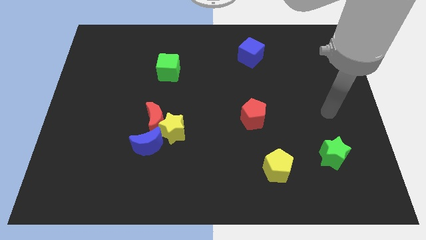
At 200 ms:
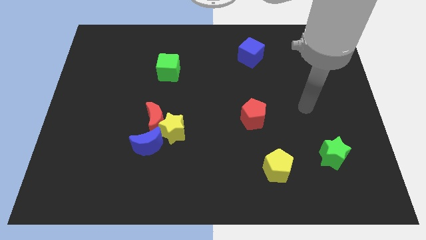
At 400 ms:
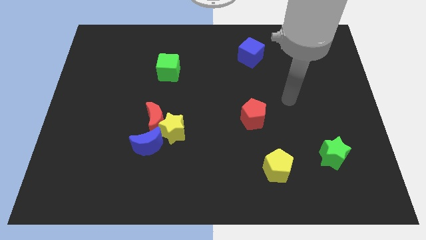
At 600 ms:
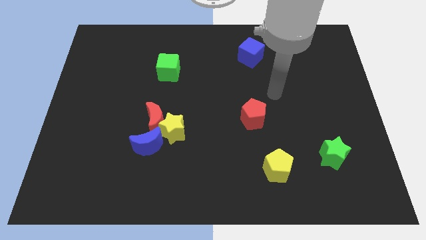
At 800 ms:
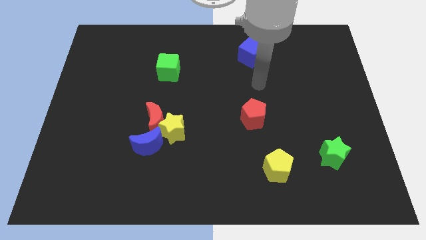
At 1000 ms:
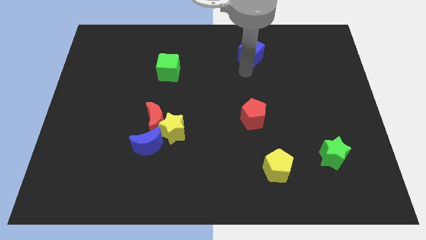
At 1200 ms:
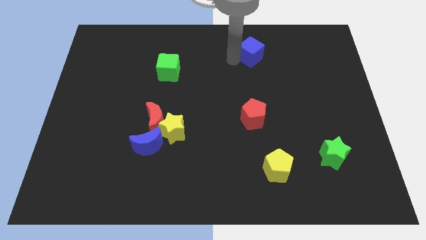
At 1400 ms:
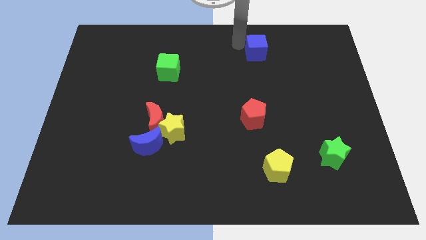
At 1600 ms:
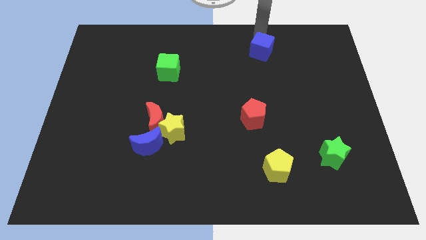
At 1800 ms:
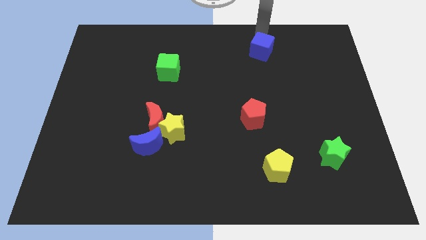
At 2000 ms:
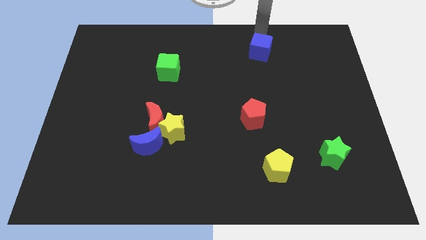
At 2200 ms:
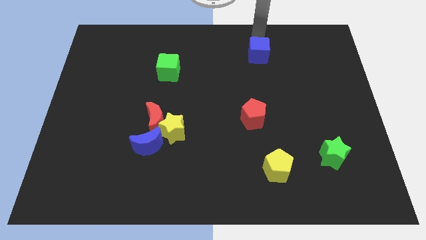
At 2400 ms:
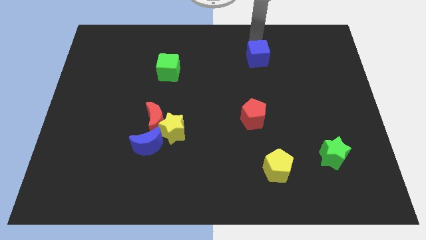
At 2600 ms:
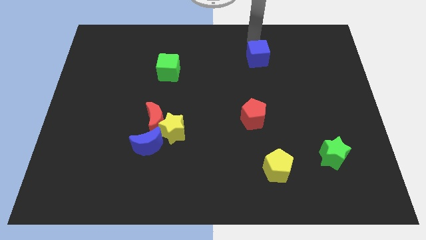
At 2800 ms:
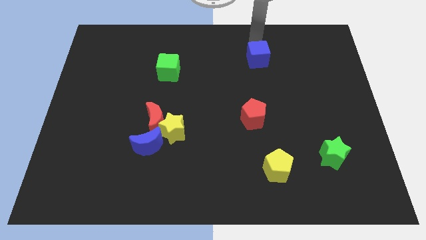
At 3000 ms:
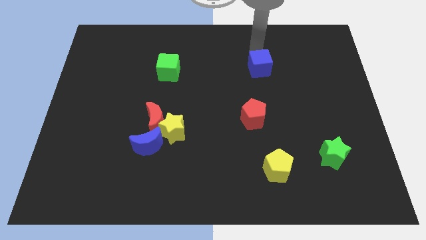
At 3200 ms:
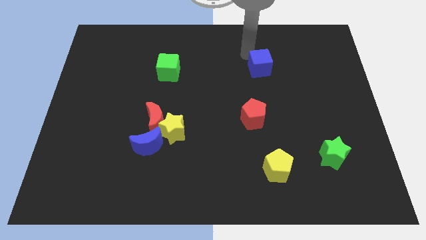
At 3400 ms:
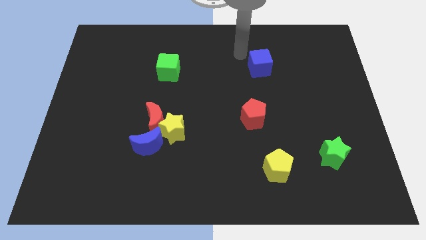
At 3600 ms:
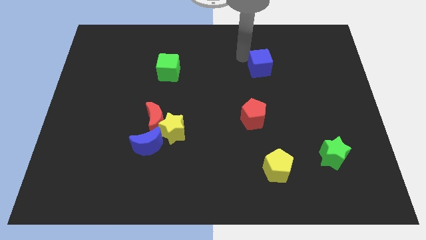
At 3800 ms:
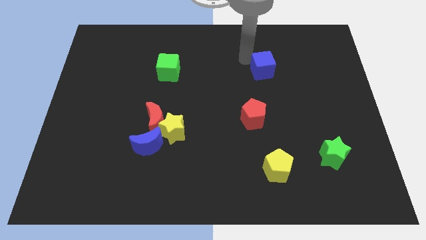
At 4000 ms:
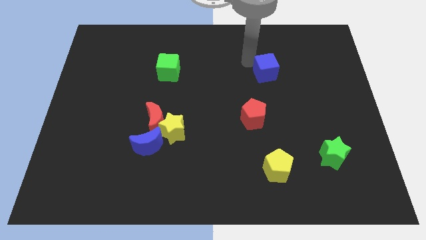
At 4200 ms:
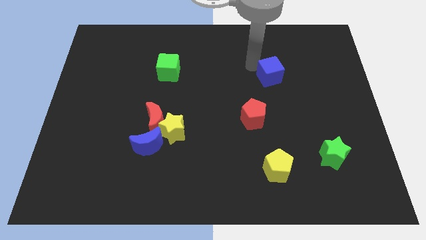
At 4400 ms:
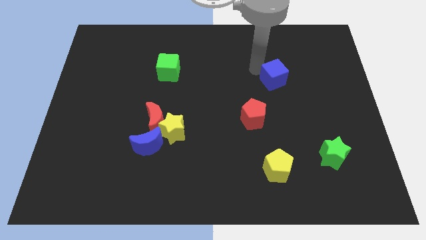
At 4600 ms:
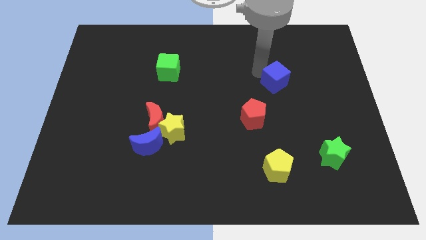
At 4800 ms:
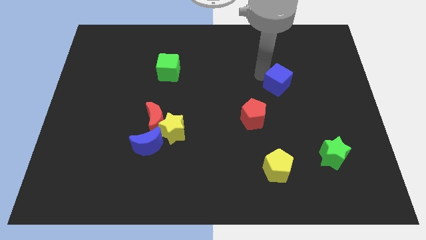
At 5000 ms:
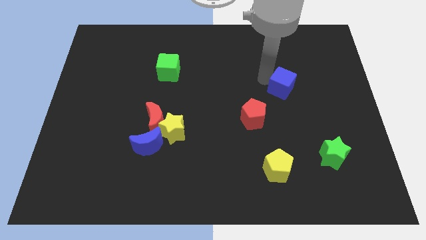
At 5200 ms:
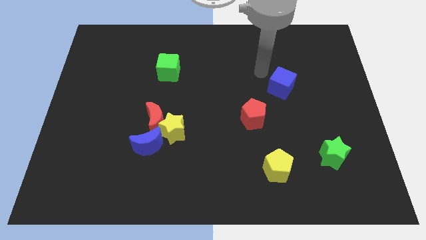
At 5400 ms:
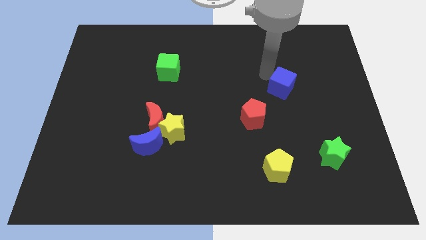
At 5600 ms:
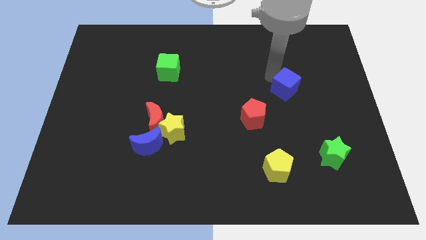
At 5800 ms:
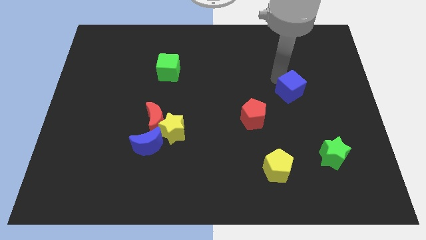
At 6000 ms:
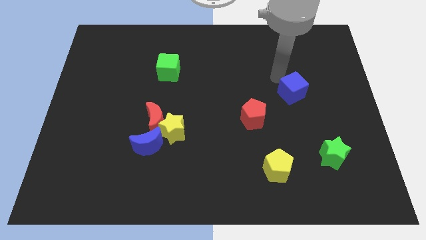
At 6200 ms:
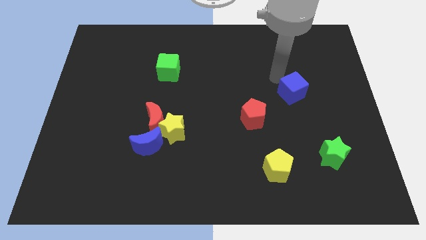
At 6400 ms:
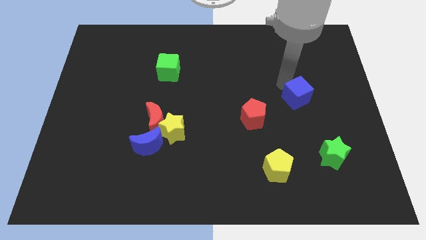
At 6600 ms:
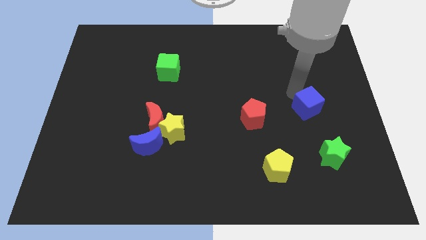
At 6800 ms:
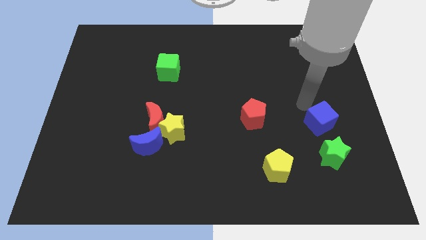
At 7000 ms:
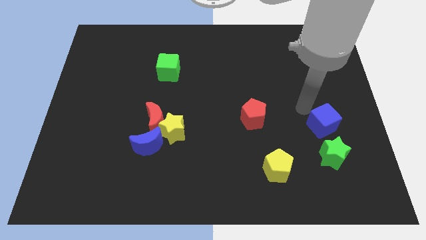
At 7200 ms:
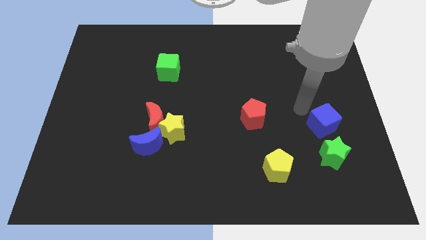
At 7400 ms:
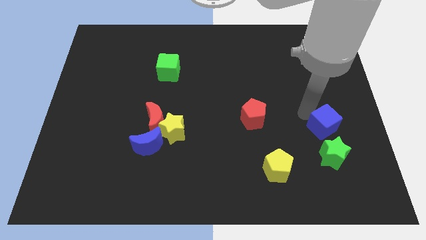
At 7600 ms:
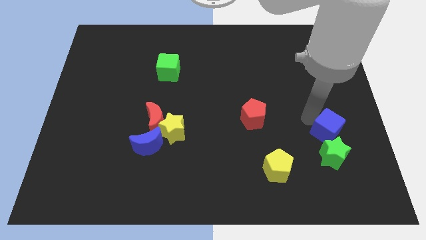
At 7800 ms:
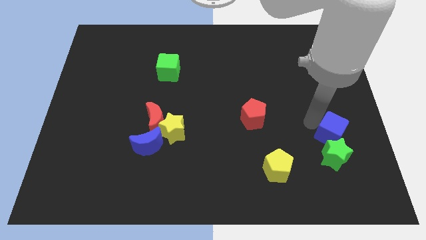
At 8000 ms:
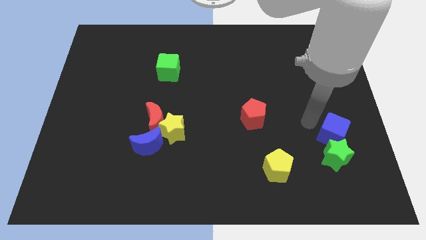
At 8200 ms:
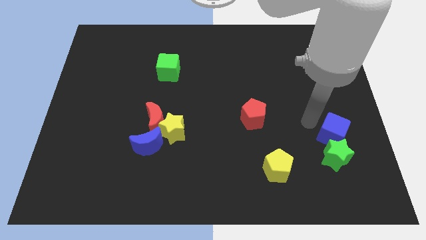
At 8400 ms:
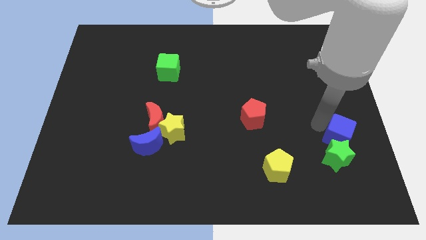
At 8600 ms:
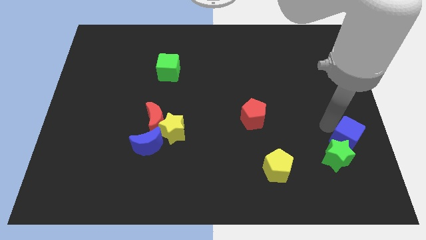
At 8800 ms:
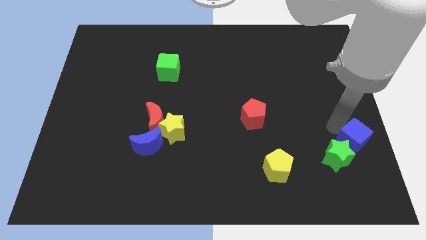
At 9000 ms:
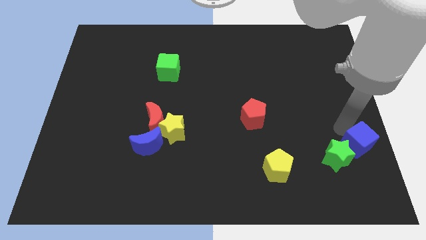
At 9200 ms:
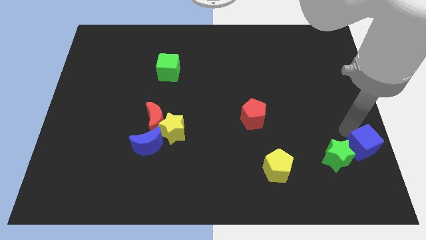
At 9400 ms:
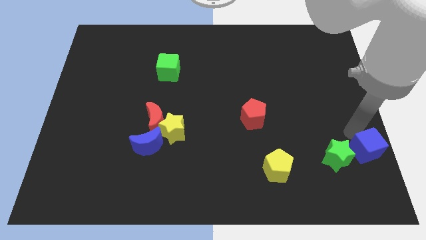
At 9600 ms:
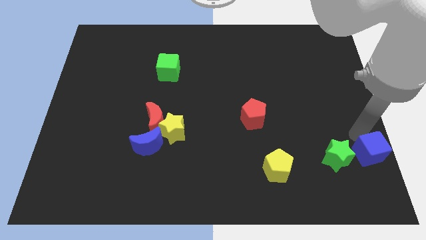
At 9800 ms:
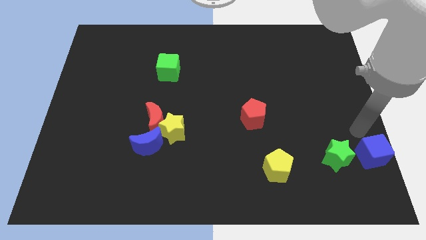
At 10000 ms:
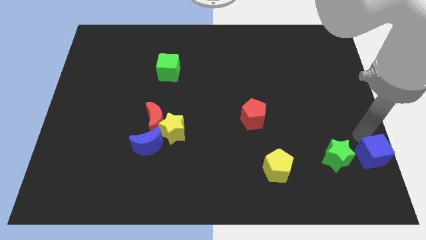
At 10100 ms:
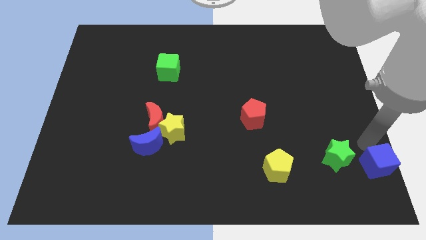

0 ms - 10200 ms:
put the blue cube to the bottom right of the board

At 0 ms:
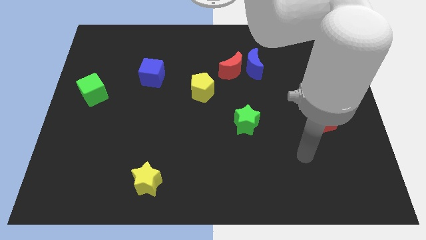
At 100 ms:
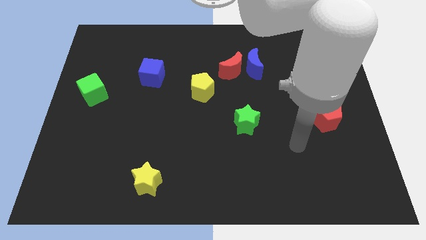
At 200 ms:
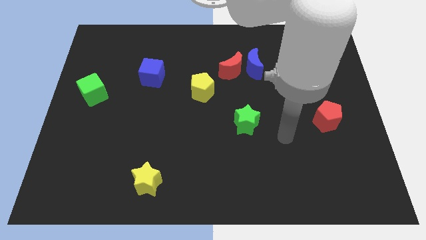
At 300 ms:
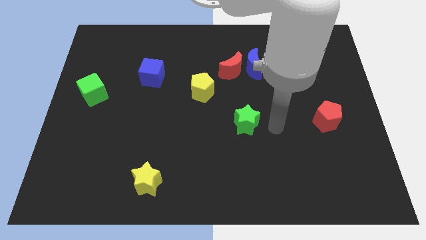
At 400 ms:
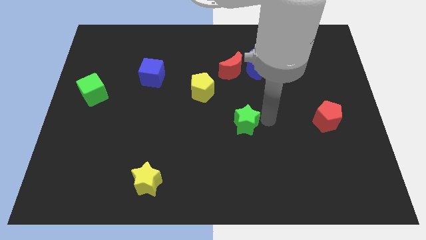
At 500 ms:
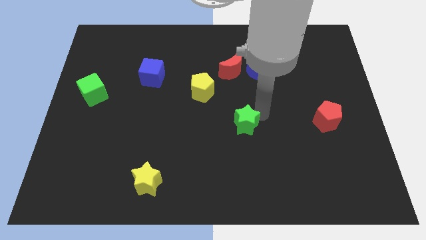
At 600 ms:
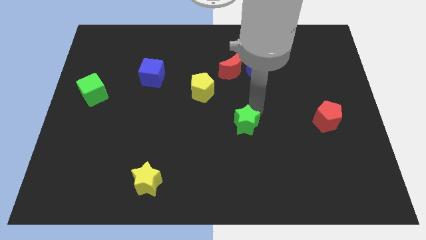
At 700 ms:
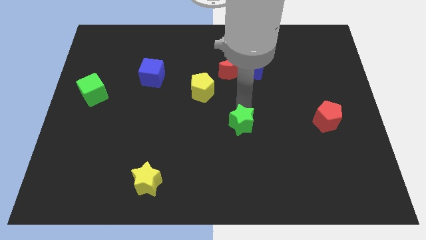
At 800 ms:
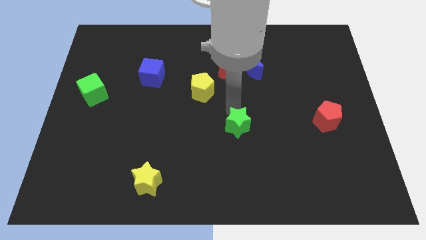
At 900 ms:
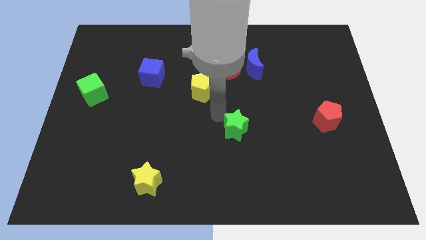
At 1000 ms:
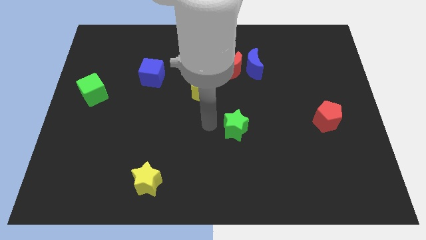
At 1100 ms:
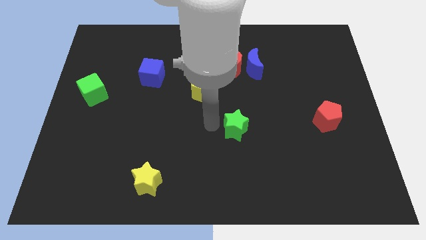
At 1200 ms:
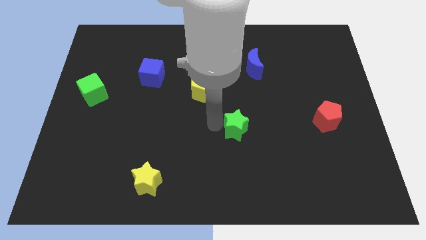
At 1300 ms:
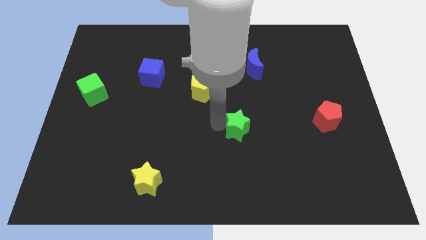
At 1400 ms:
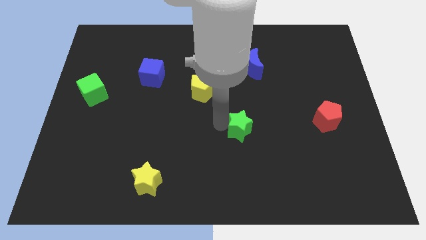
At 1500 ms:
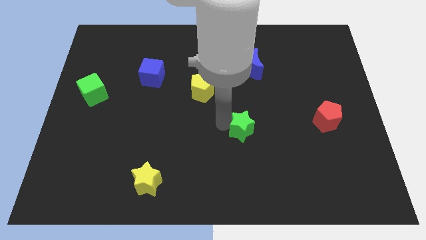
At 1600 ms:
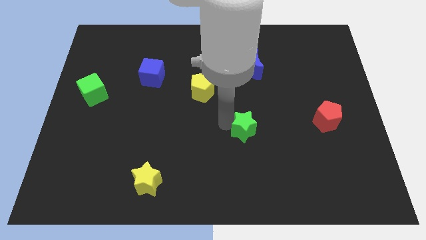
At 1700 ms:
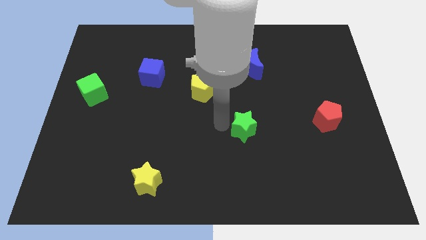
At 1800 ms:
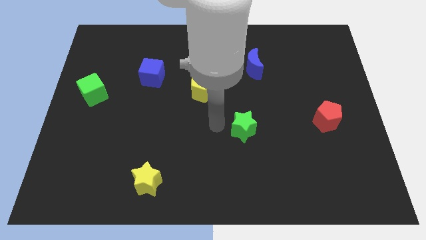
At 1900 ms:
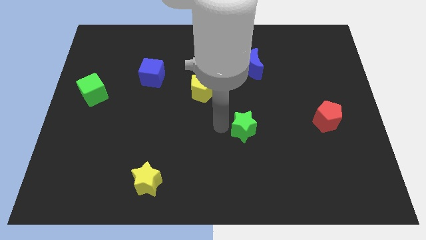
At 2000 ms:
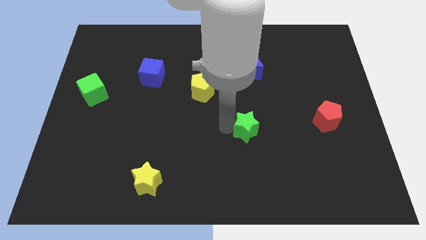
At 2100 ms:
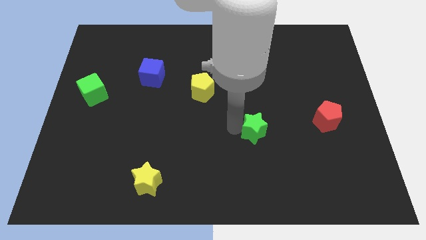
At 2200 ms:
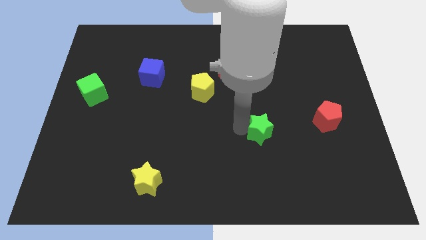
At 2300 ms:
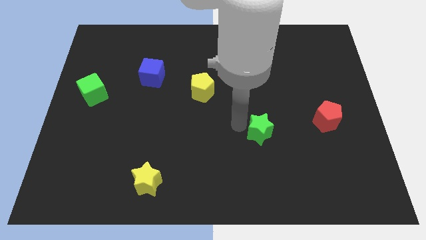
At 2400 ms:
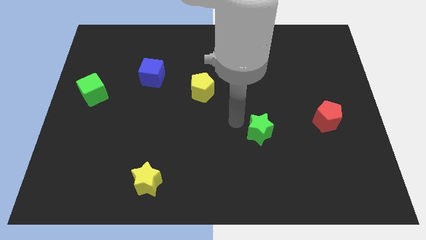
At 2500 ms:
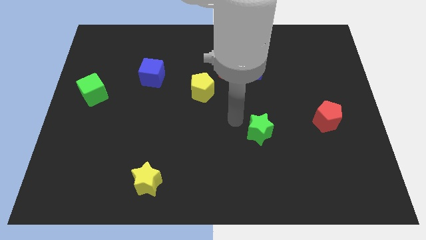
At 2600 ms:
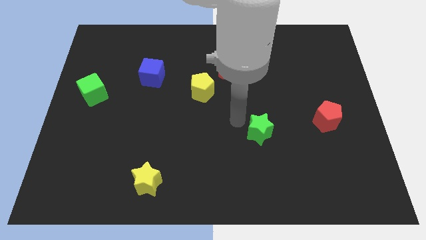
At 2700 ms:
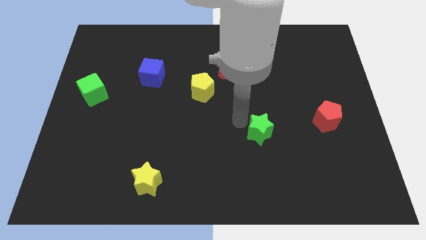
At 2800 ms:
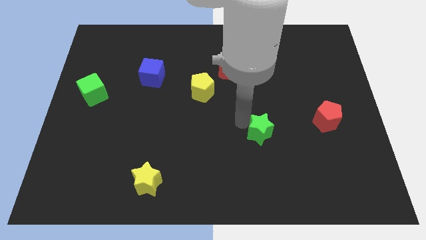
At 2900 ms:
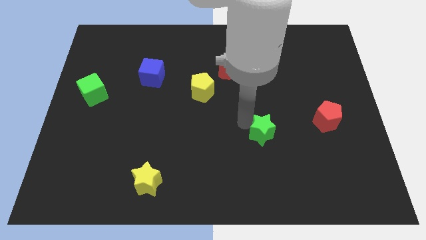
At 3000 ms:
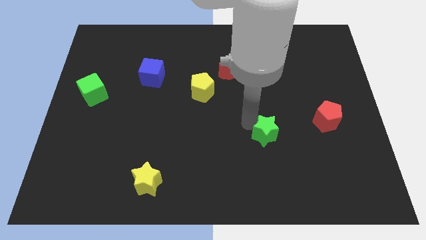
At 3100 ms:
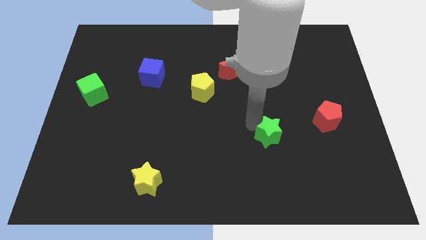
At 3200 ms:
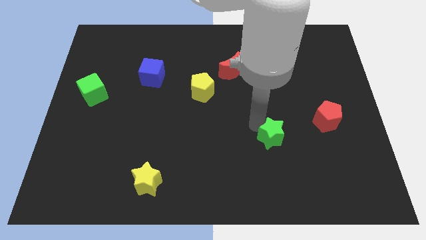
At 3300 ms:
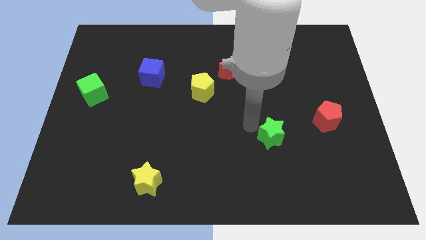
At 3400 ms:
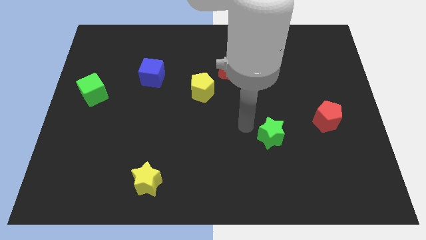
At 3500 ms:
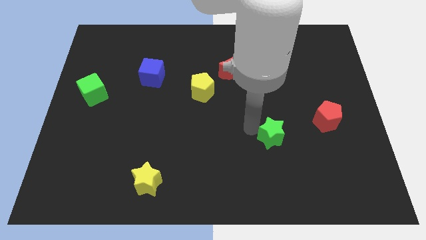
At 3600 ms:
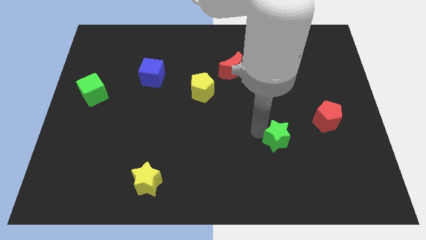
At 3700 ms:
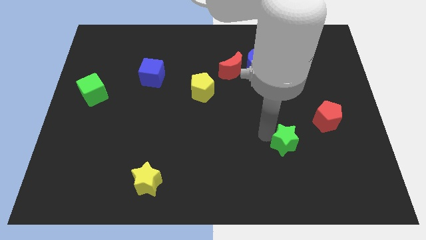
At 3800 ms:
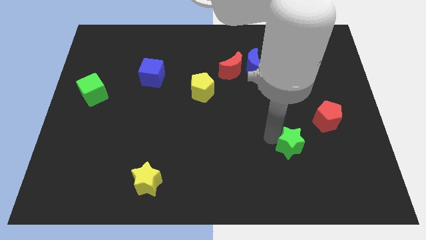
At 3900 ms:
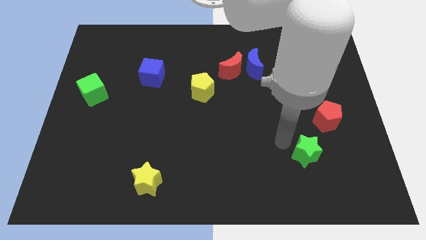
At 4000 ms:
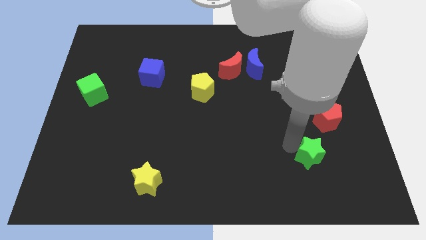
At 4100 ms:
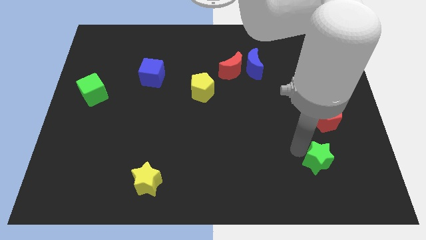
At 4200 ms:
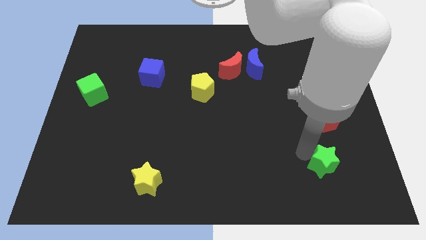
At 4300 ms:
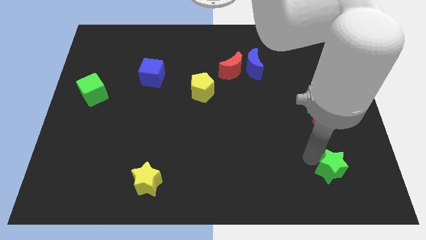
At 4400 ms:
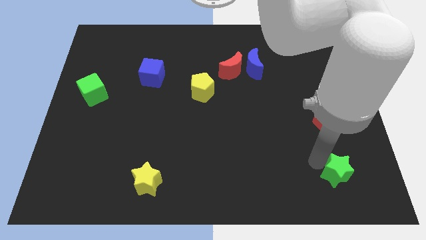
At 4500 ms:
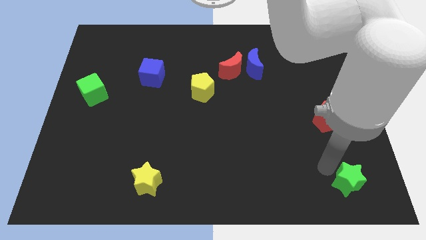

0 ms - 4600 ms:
push the green star to the lower right corner
